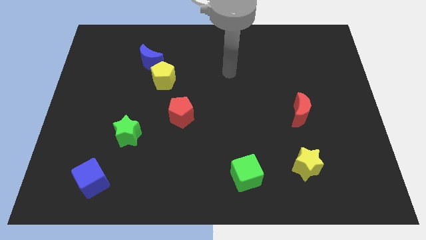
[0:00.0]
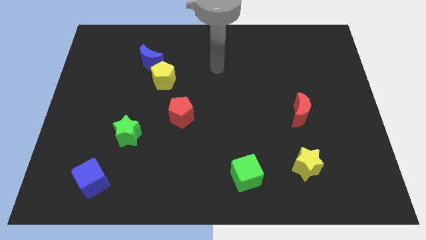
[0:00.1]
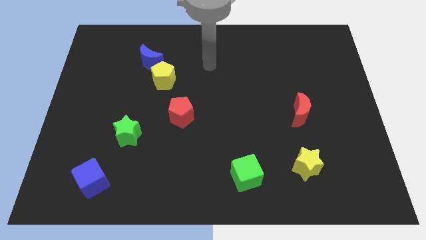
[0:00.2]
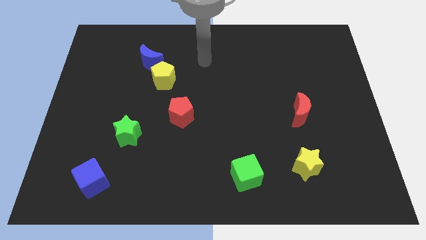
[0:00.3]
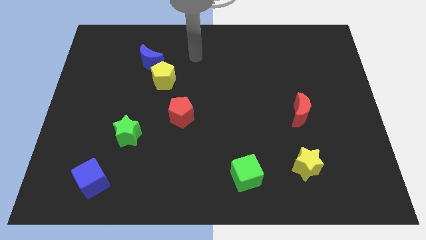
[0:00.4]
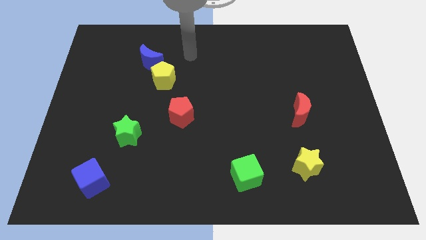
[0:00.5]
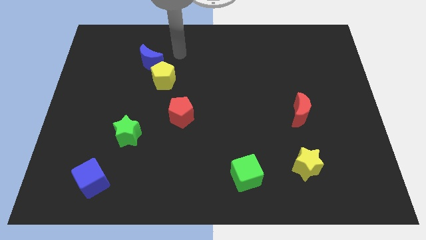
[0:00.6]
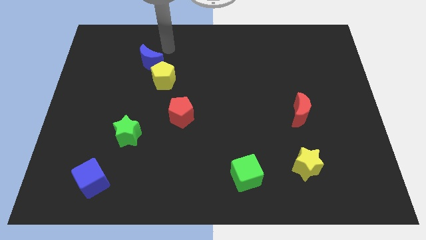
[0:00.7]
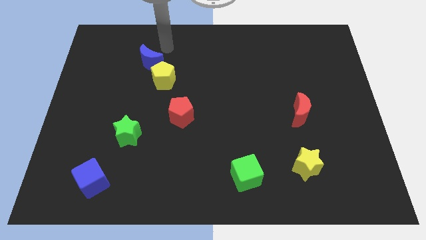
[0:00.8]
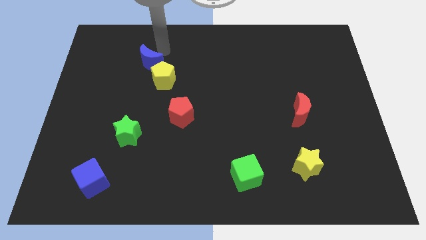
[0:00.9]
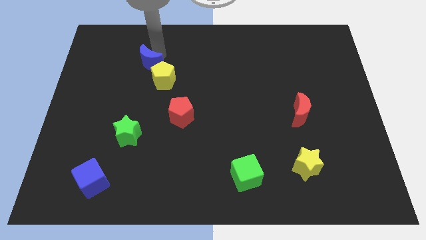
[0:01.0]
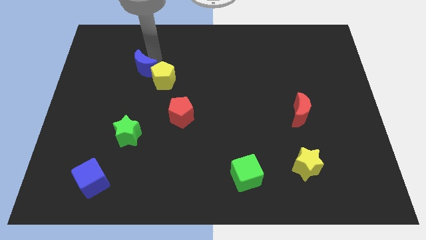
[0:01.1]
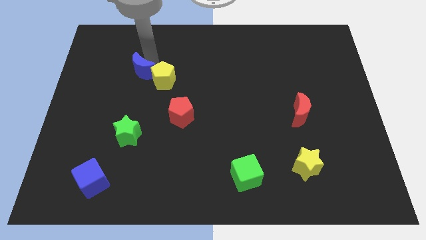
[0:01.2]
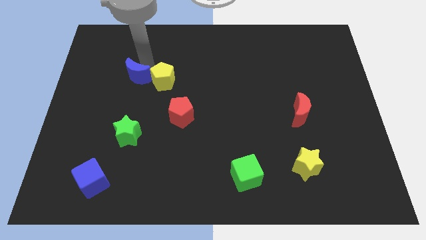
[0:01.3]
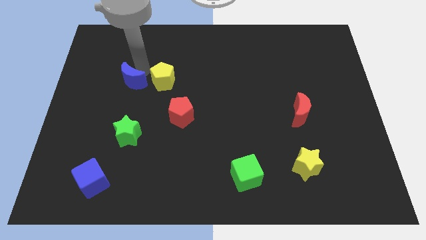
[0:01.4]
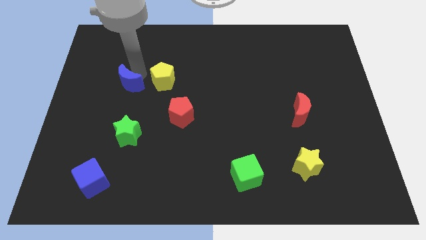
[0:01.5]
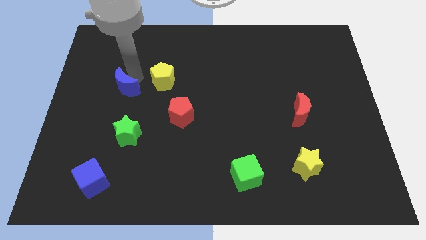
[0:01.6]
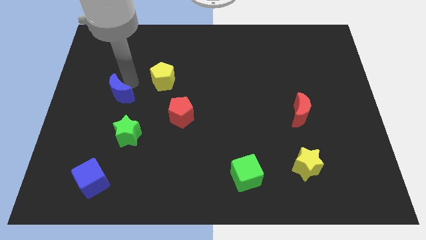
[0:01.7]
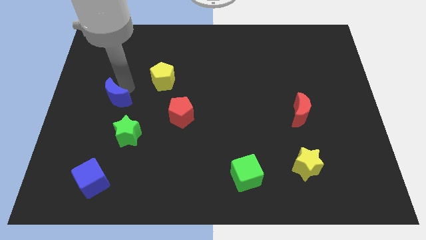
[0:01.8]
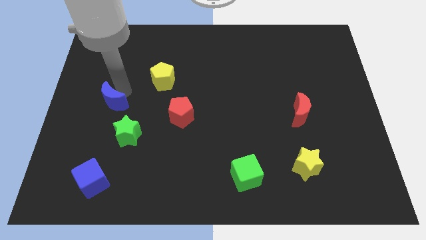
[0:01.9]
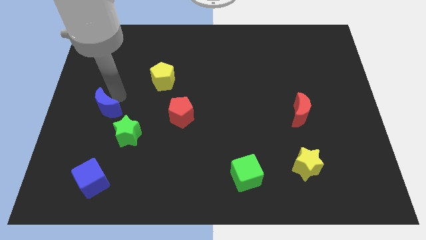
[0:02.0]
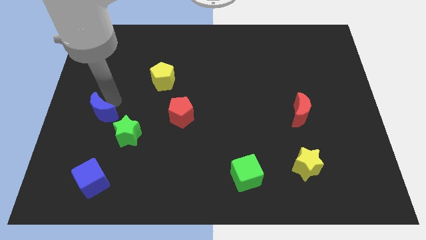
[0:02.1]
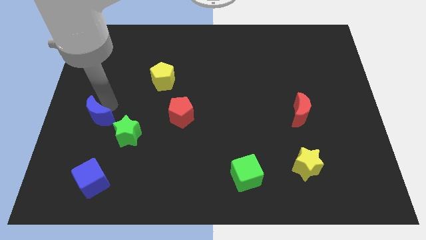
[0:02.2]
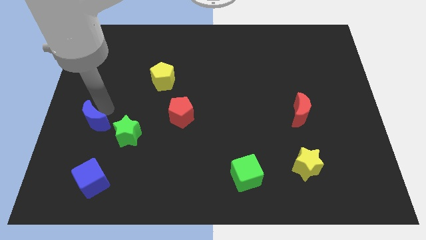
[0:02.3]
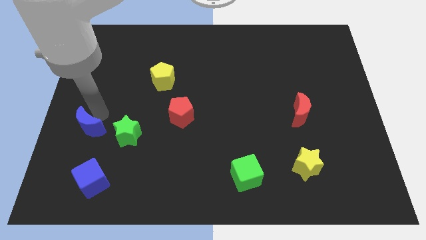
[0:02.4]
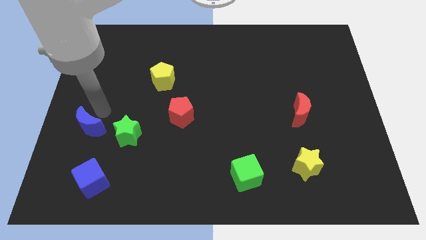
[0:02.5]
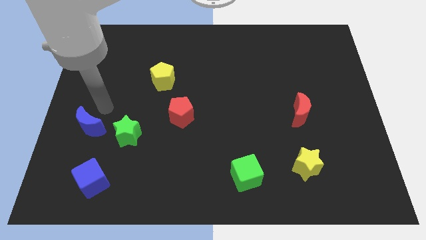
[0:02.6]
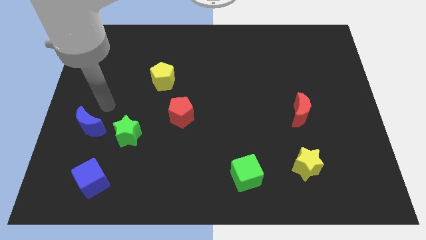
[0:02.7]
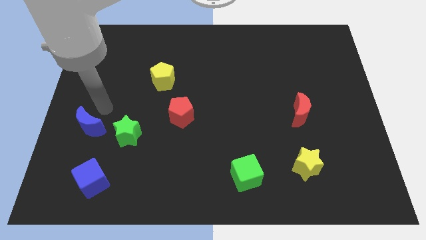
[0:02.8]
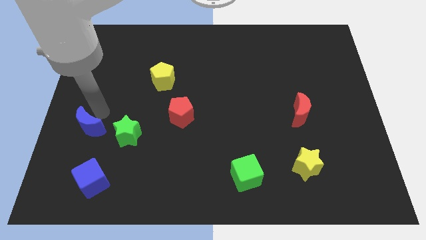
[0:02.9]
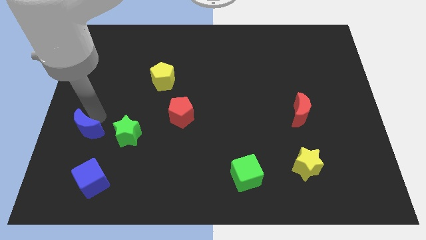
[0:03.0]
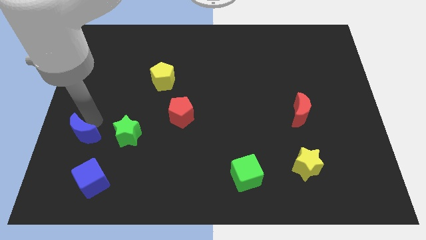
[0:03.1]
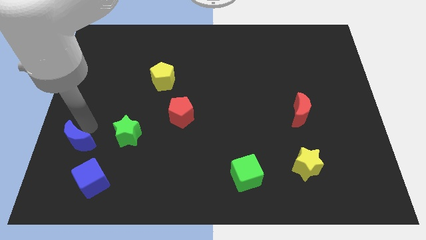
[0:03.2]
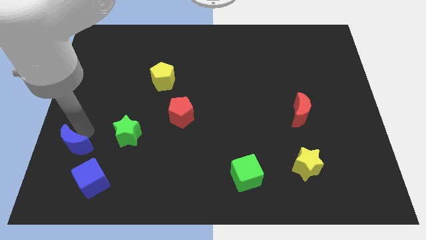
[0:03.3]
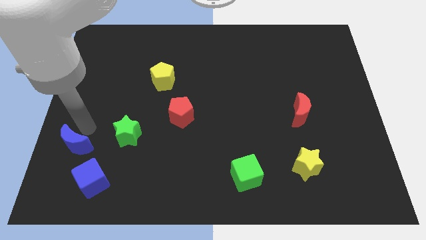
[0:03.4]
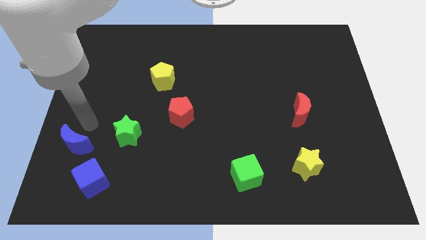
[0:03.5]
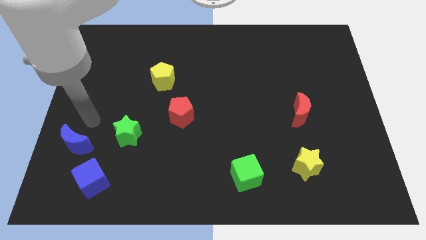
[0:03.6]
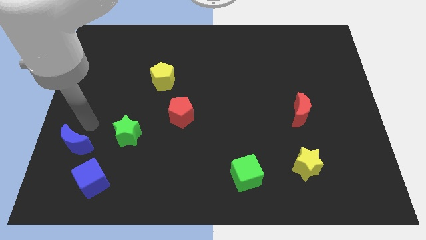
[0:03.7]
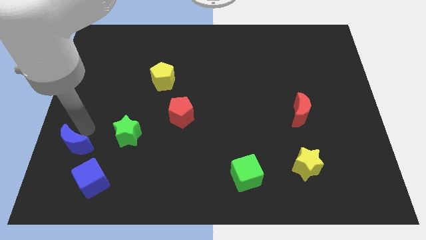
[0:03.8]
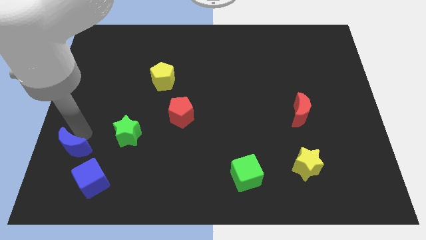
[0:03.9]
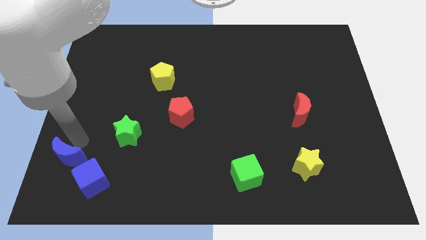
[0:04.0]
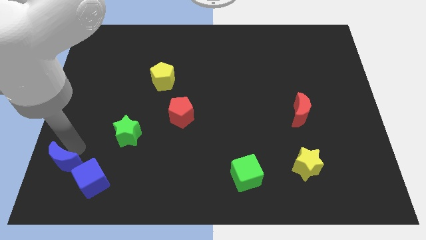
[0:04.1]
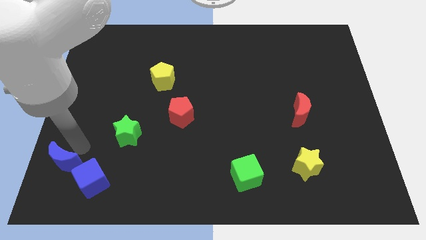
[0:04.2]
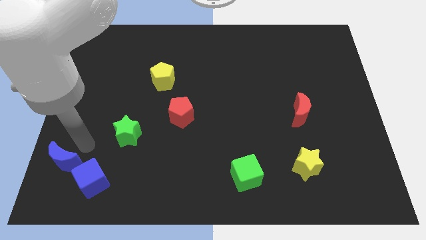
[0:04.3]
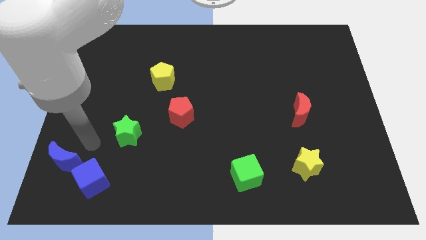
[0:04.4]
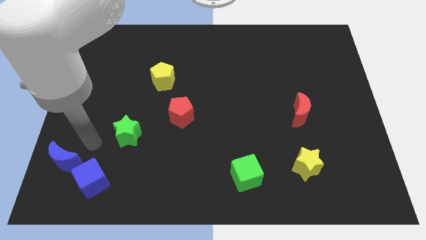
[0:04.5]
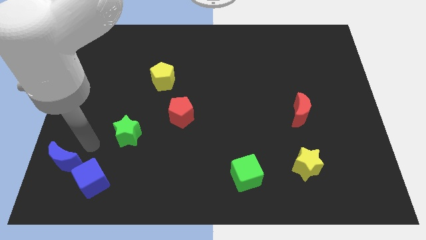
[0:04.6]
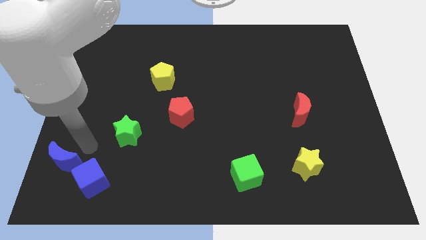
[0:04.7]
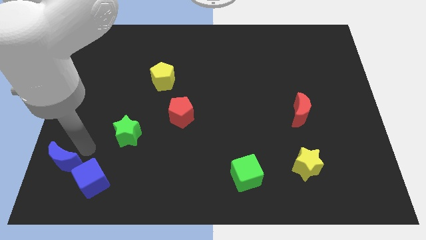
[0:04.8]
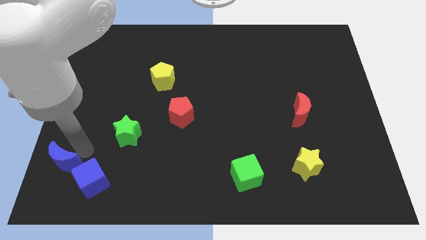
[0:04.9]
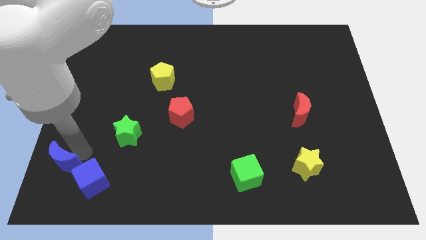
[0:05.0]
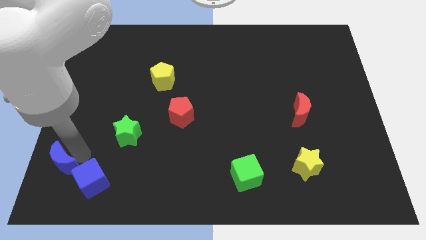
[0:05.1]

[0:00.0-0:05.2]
put the blue moon to the bottom left

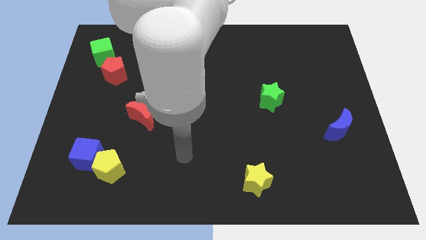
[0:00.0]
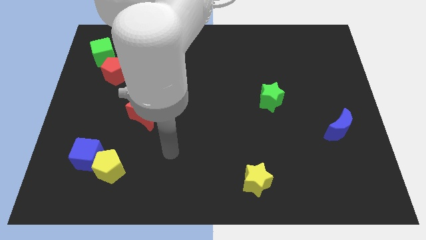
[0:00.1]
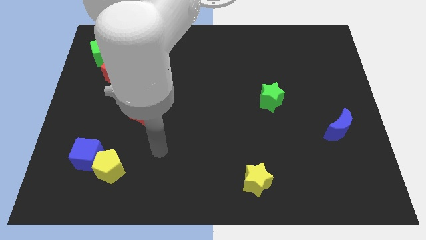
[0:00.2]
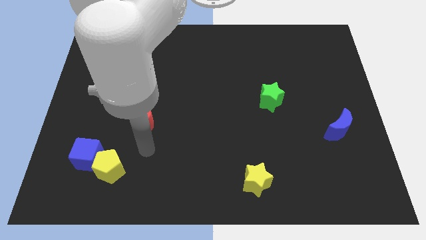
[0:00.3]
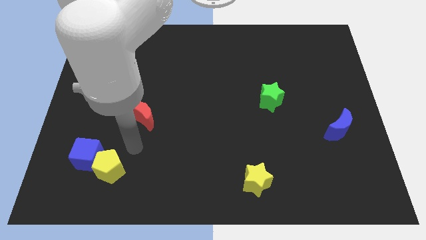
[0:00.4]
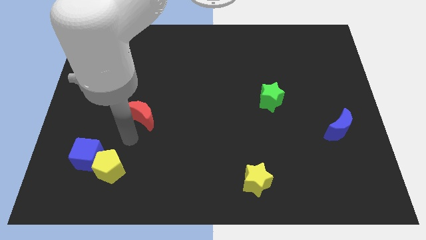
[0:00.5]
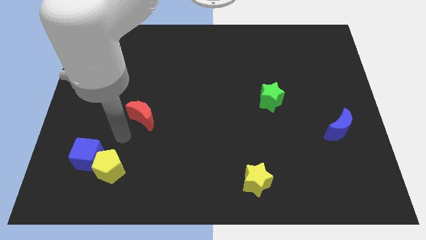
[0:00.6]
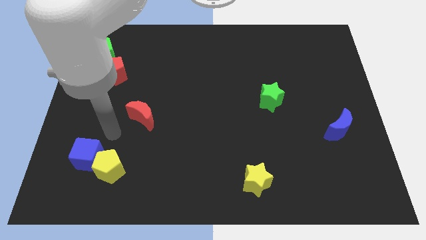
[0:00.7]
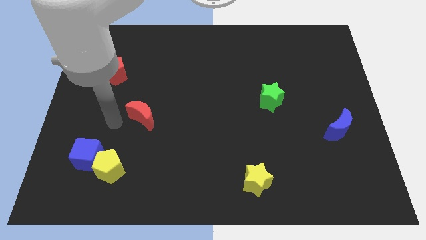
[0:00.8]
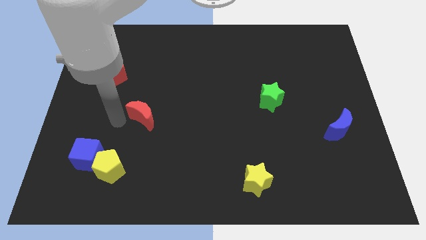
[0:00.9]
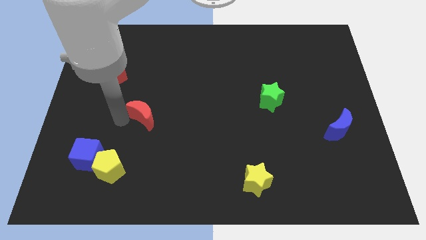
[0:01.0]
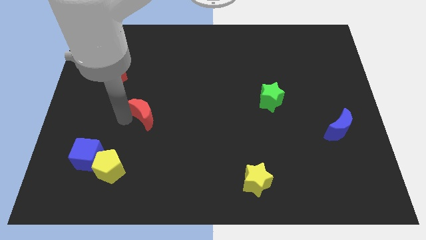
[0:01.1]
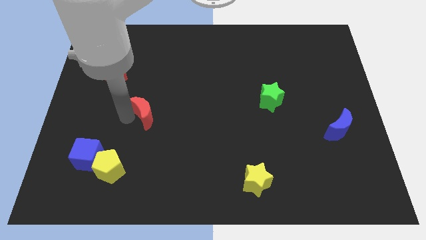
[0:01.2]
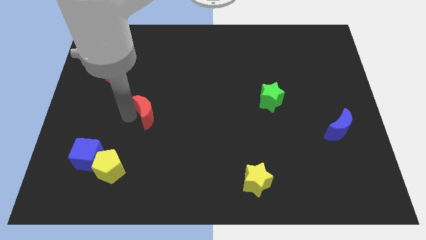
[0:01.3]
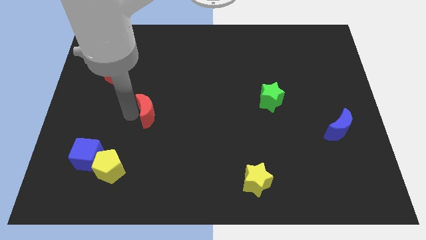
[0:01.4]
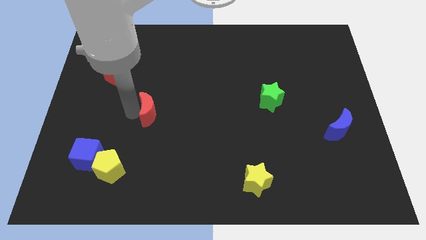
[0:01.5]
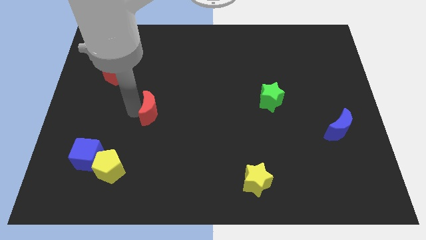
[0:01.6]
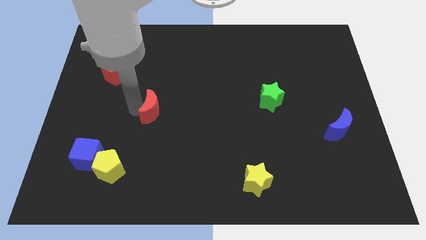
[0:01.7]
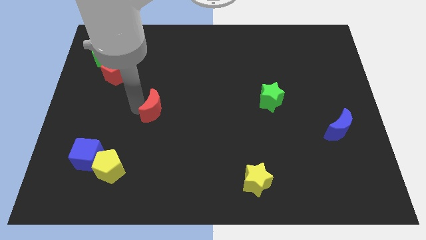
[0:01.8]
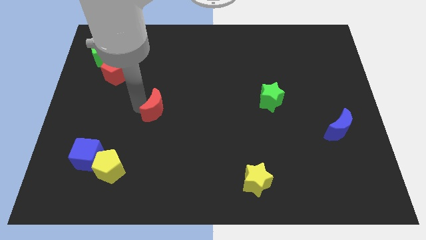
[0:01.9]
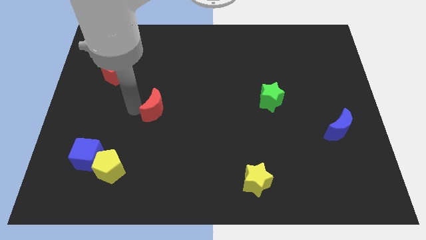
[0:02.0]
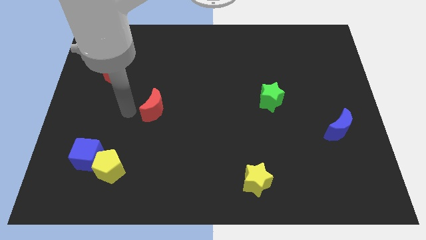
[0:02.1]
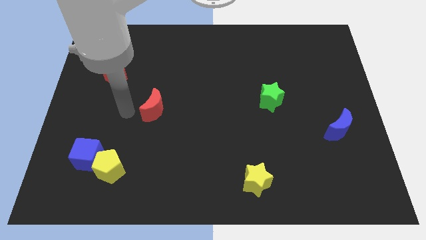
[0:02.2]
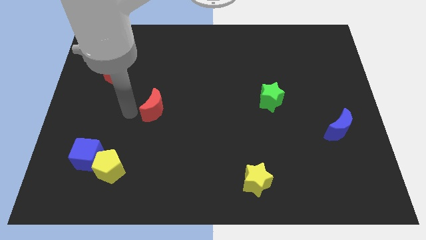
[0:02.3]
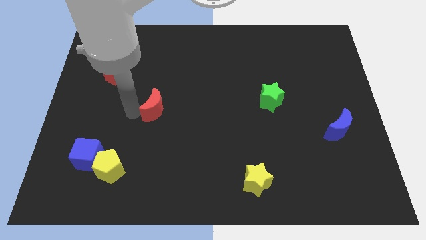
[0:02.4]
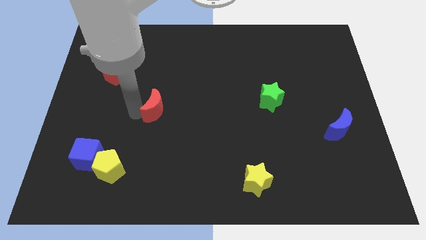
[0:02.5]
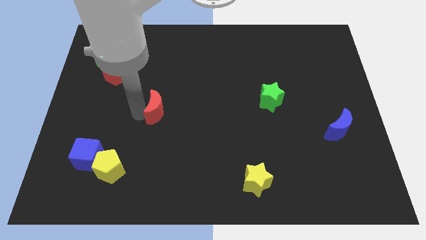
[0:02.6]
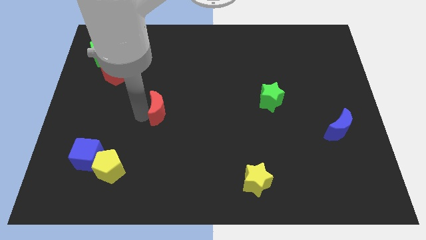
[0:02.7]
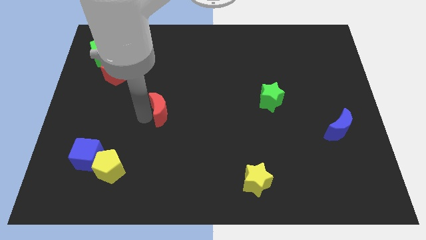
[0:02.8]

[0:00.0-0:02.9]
push the red moon to the center of the board
